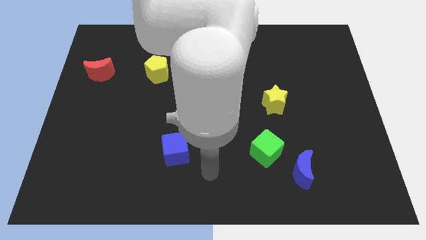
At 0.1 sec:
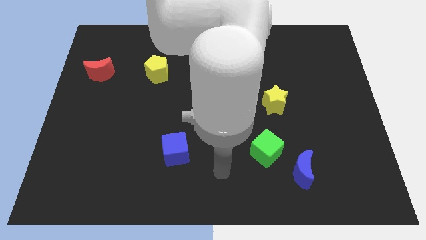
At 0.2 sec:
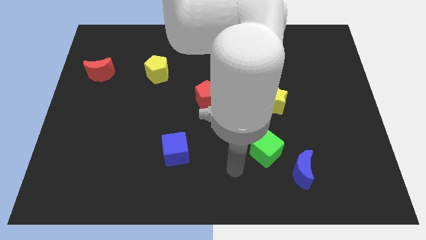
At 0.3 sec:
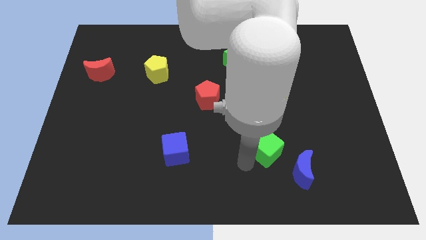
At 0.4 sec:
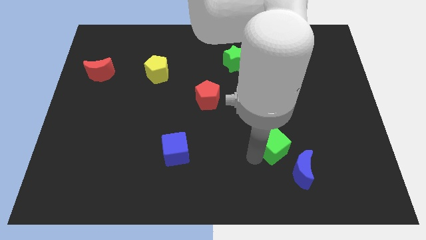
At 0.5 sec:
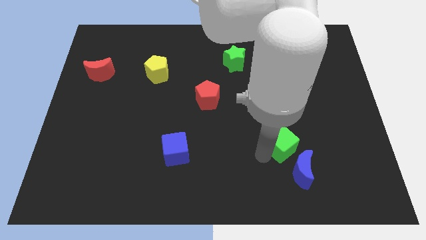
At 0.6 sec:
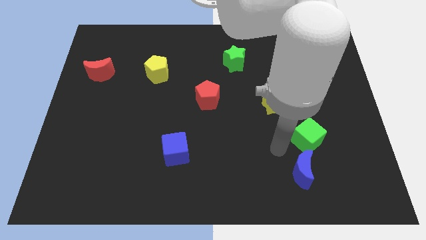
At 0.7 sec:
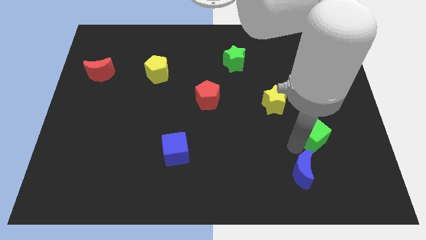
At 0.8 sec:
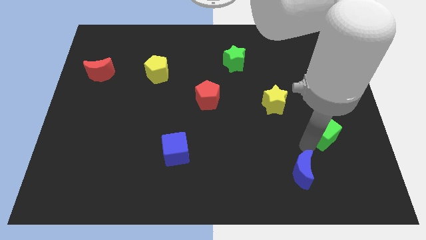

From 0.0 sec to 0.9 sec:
separate the blue moon from the green cube

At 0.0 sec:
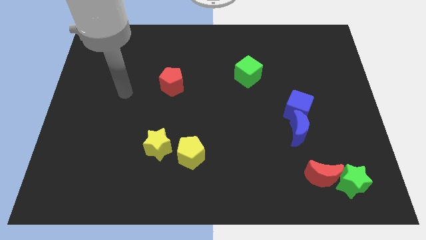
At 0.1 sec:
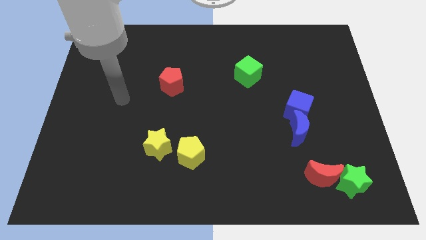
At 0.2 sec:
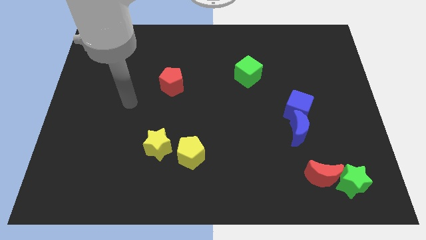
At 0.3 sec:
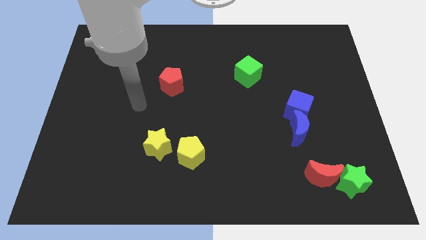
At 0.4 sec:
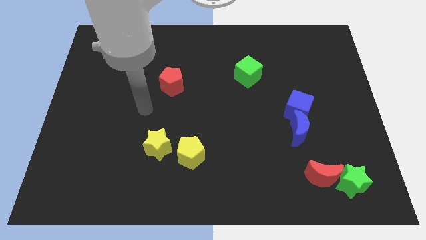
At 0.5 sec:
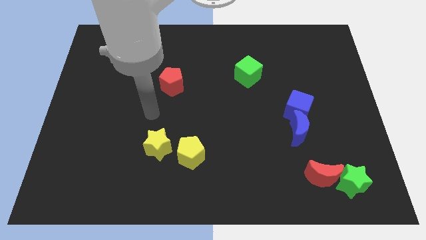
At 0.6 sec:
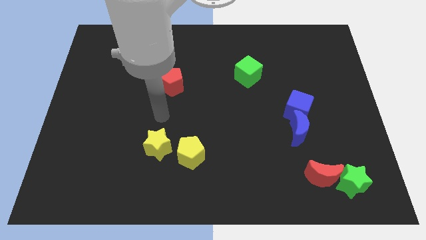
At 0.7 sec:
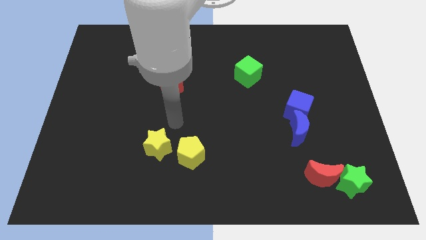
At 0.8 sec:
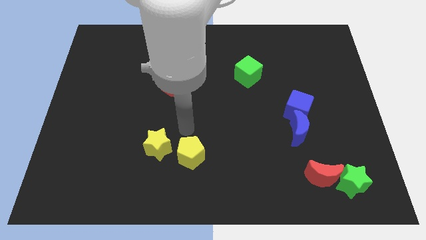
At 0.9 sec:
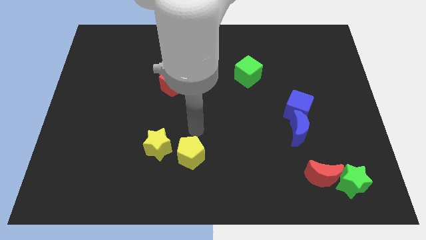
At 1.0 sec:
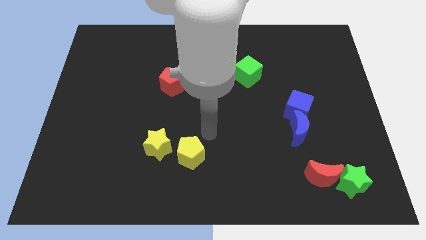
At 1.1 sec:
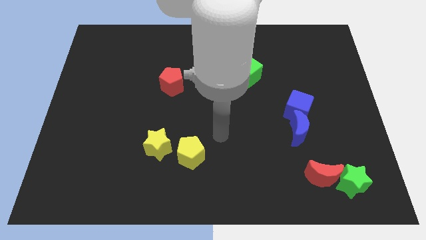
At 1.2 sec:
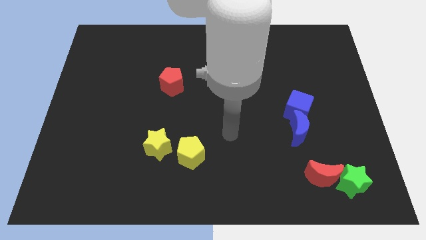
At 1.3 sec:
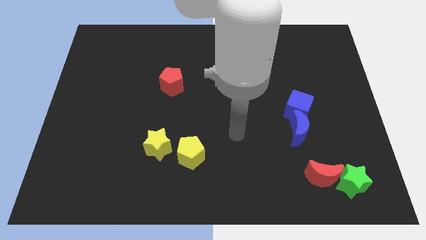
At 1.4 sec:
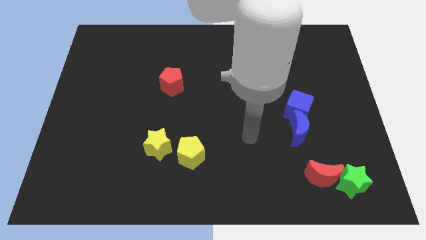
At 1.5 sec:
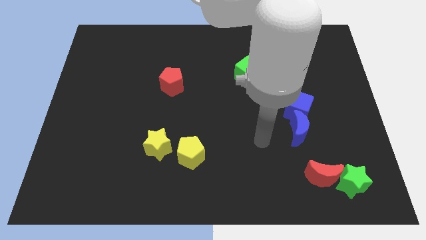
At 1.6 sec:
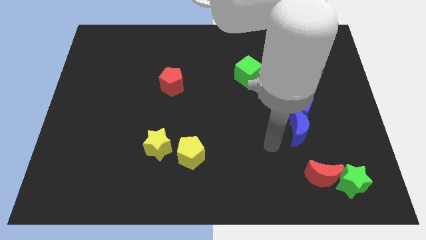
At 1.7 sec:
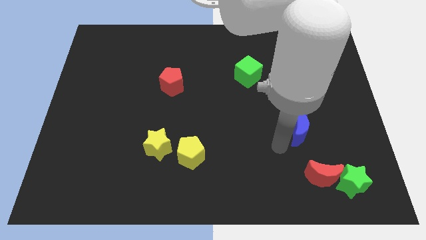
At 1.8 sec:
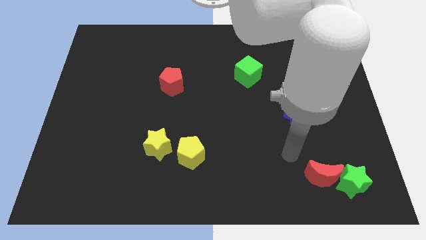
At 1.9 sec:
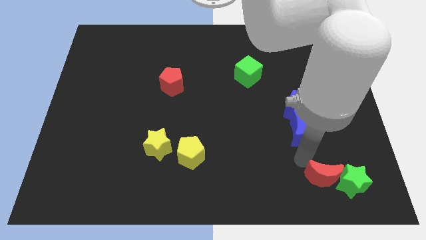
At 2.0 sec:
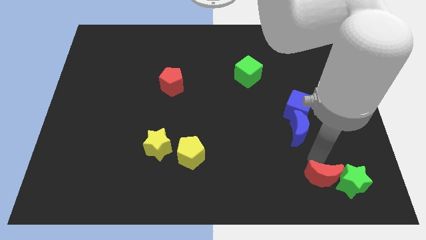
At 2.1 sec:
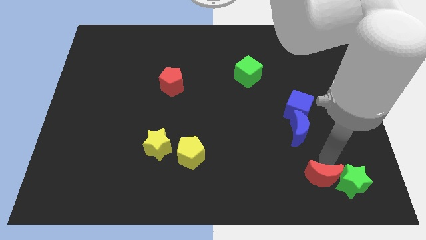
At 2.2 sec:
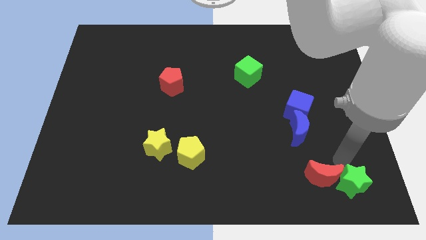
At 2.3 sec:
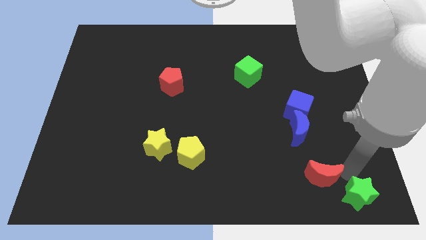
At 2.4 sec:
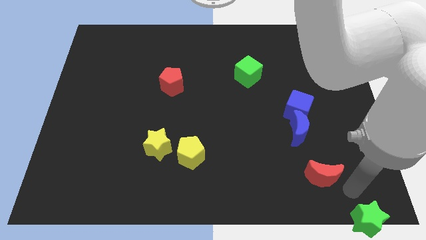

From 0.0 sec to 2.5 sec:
pull the red moon apart from the green star

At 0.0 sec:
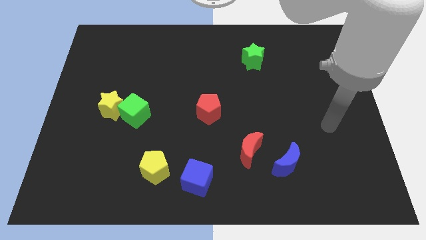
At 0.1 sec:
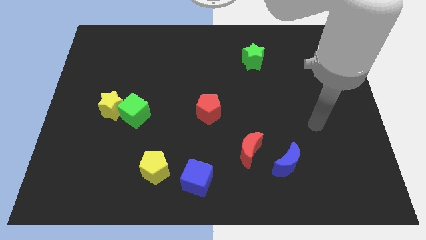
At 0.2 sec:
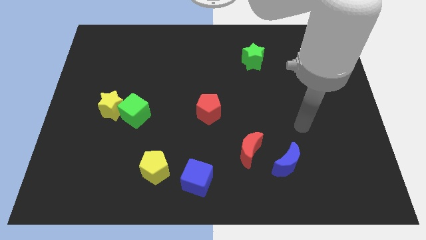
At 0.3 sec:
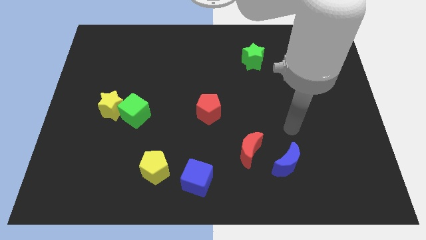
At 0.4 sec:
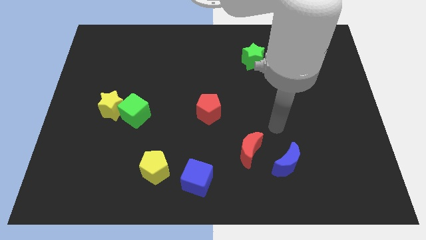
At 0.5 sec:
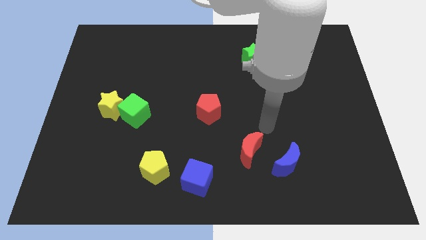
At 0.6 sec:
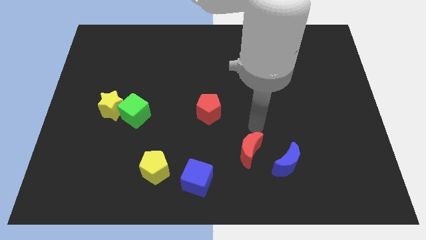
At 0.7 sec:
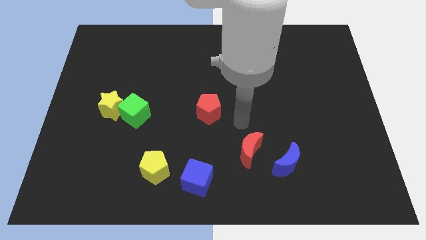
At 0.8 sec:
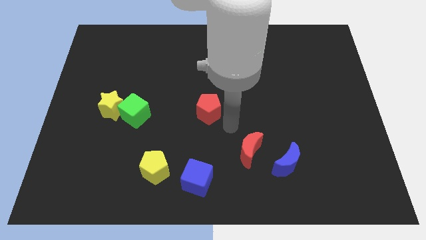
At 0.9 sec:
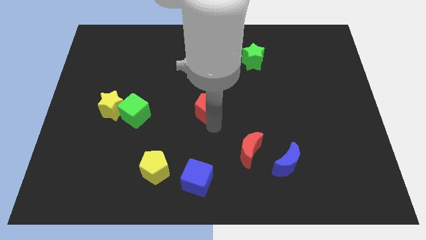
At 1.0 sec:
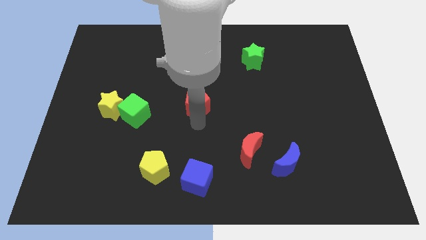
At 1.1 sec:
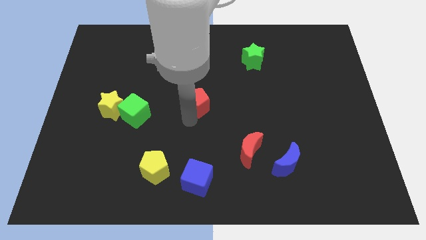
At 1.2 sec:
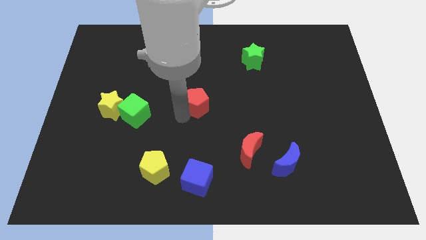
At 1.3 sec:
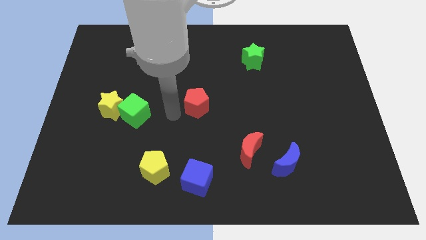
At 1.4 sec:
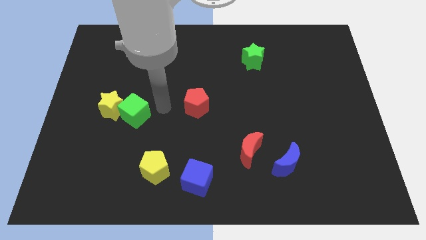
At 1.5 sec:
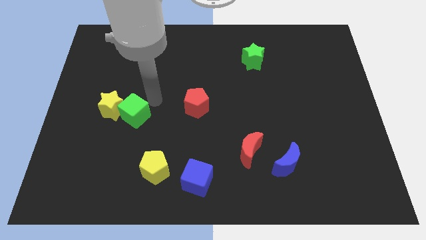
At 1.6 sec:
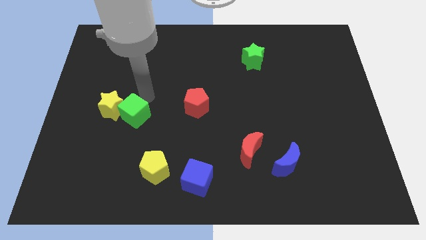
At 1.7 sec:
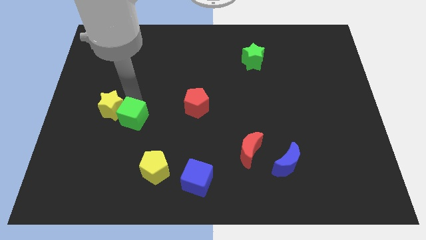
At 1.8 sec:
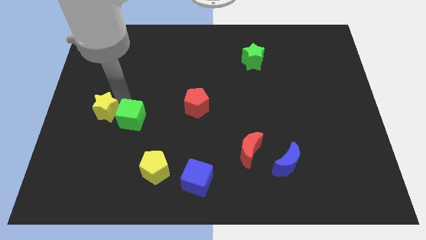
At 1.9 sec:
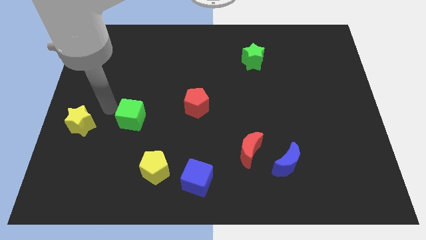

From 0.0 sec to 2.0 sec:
pull the green cube apart from the yellow star

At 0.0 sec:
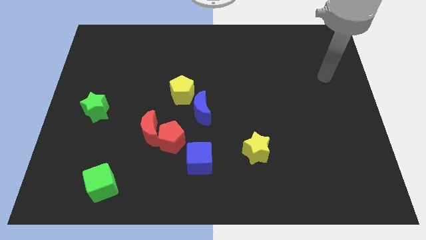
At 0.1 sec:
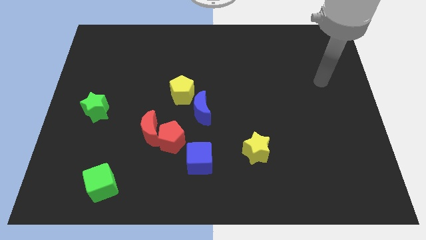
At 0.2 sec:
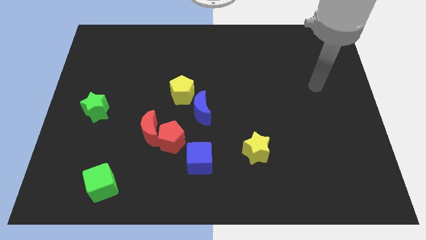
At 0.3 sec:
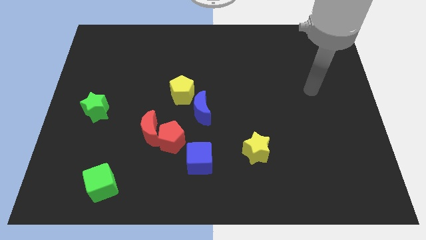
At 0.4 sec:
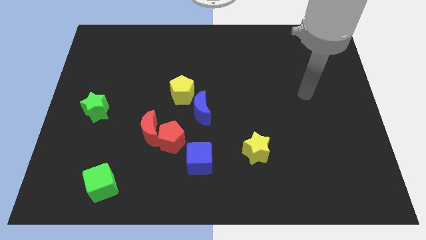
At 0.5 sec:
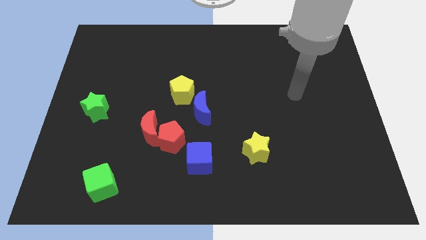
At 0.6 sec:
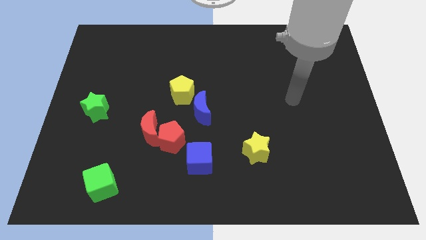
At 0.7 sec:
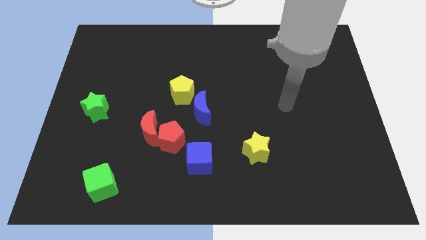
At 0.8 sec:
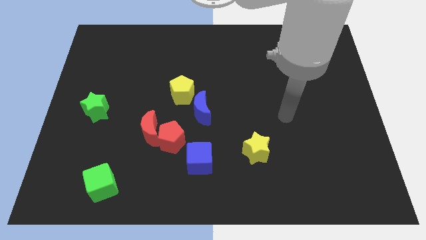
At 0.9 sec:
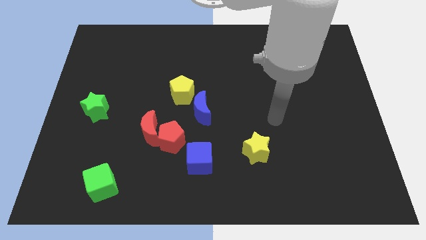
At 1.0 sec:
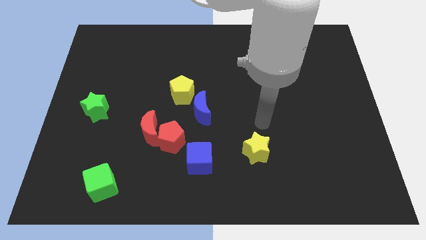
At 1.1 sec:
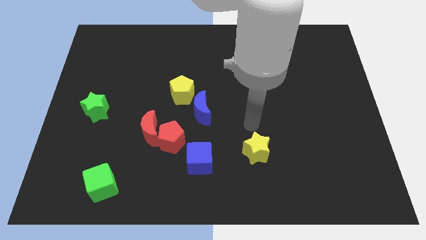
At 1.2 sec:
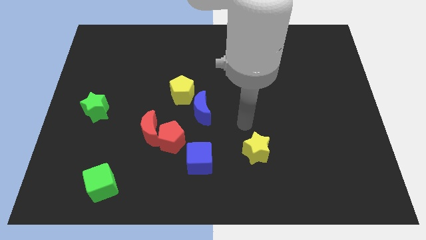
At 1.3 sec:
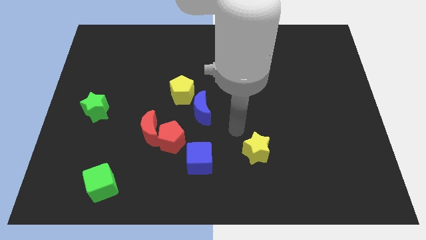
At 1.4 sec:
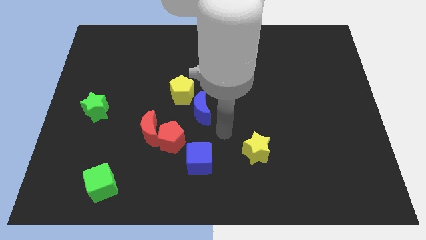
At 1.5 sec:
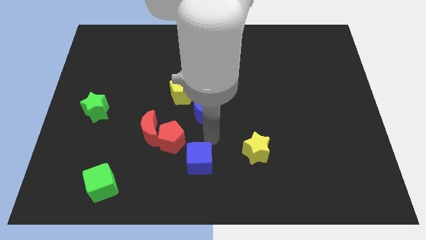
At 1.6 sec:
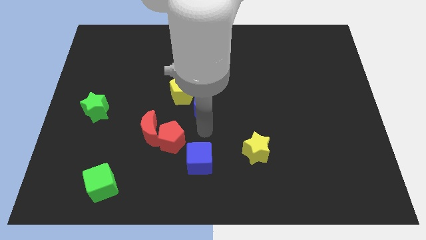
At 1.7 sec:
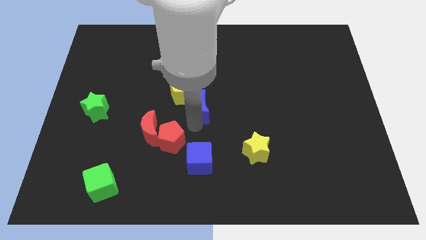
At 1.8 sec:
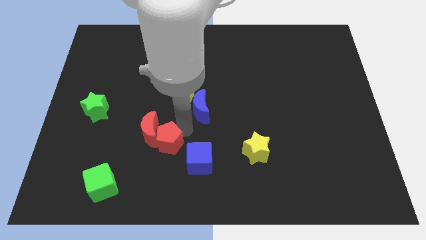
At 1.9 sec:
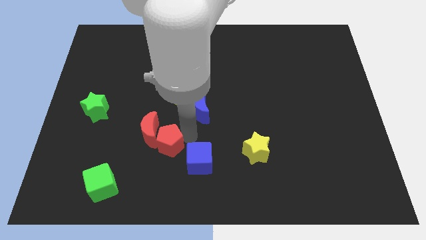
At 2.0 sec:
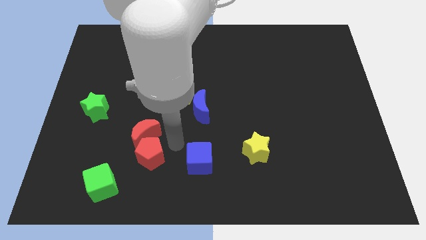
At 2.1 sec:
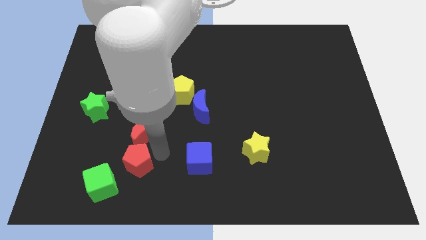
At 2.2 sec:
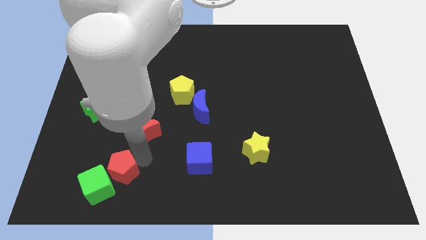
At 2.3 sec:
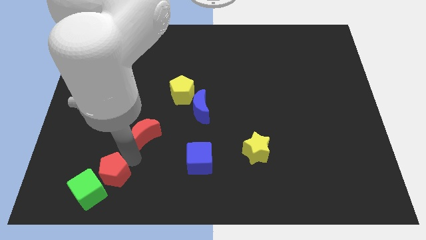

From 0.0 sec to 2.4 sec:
pull the red moon apart from the red pentagon

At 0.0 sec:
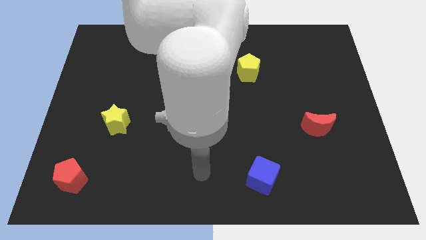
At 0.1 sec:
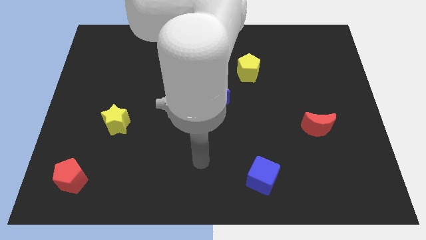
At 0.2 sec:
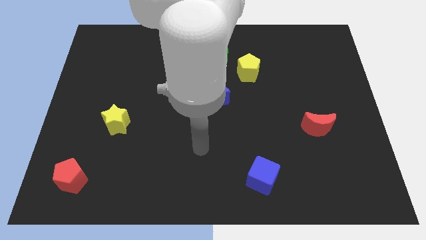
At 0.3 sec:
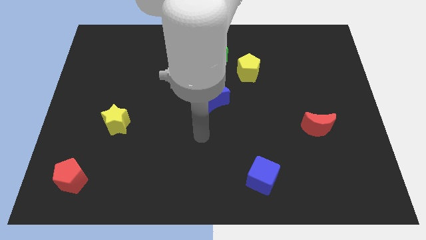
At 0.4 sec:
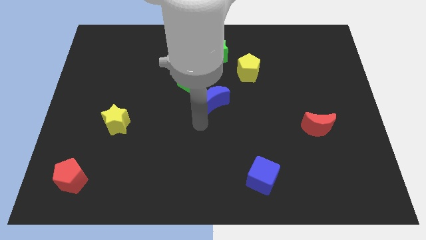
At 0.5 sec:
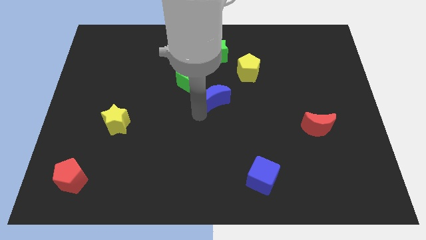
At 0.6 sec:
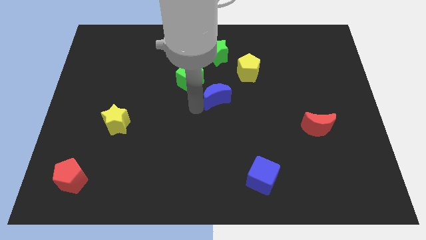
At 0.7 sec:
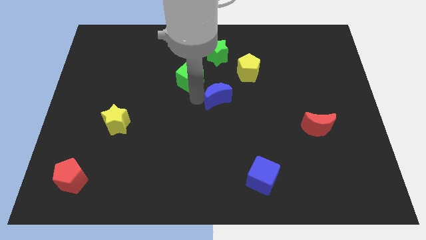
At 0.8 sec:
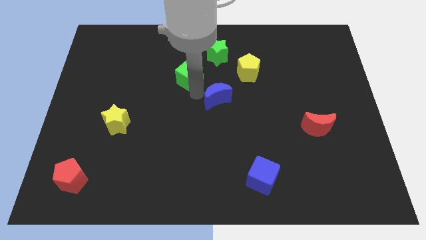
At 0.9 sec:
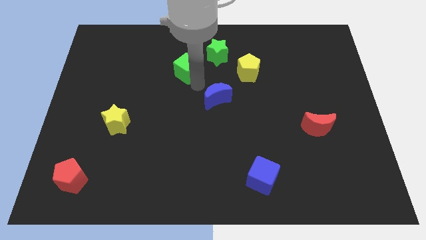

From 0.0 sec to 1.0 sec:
pull the blue moon apart from the green cube

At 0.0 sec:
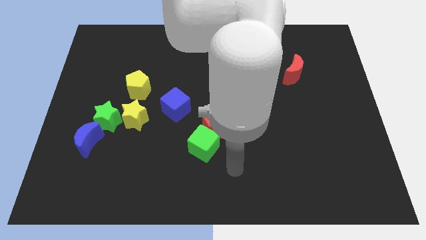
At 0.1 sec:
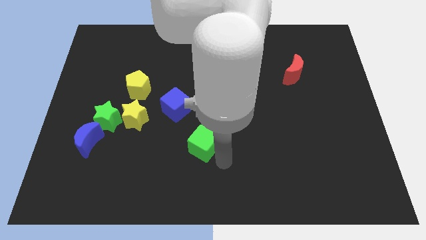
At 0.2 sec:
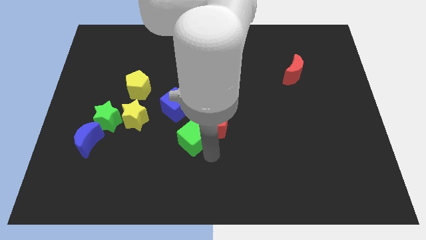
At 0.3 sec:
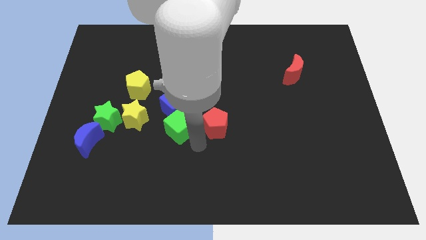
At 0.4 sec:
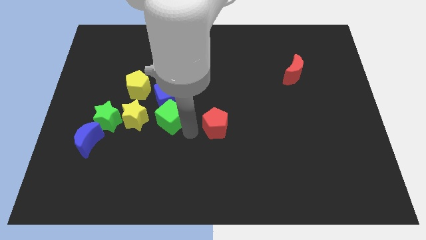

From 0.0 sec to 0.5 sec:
move the red pentagon away from the green cube
